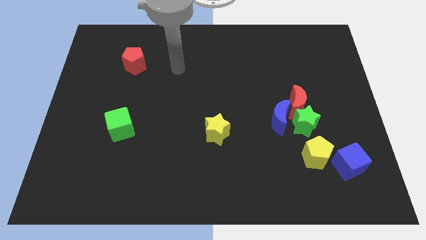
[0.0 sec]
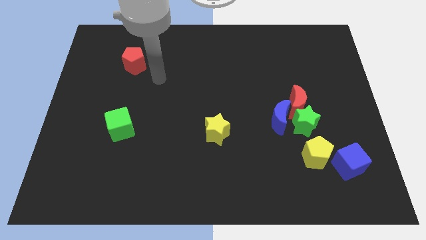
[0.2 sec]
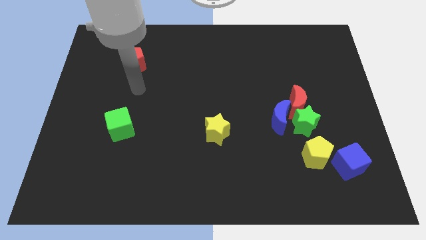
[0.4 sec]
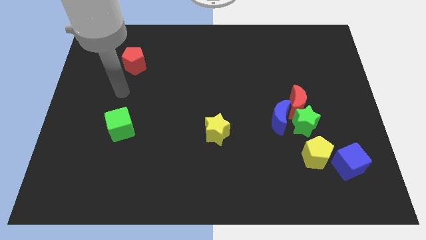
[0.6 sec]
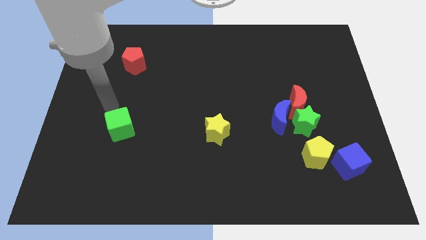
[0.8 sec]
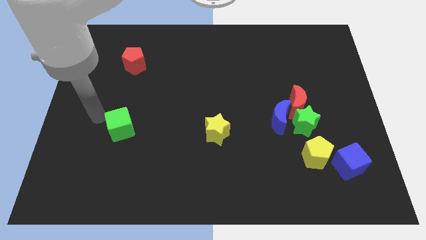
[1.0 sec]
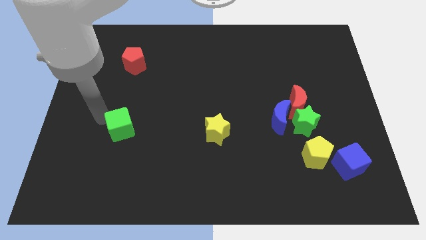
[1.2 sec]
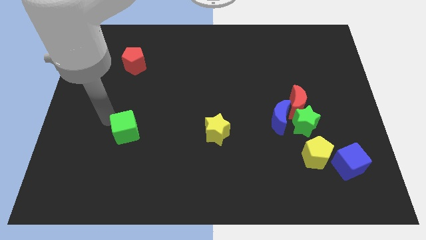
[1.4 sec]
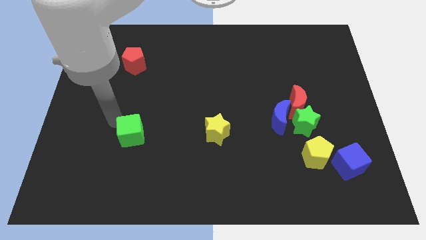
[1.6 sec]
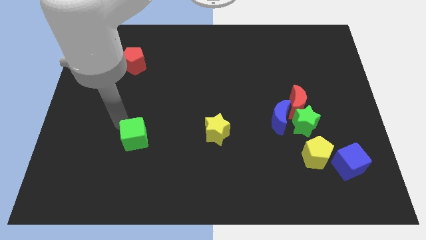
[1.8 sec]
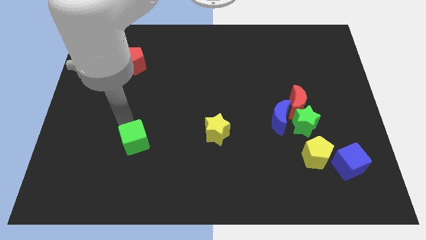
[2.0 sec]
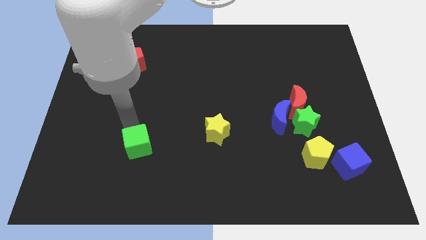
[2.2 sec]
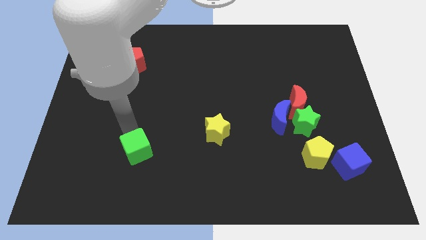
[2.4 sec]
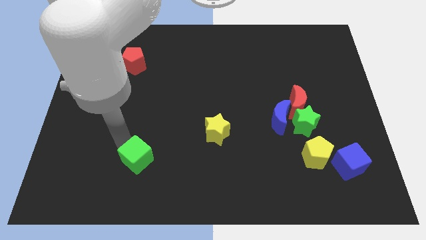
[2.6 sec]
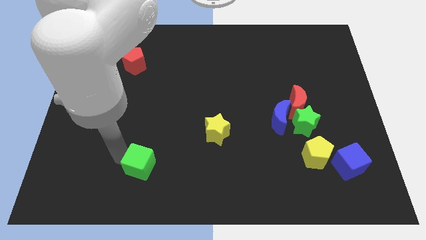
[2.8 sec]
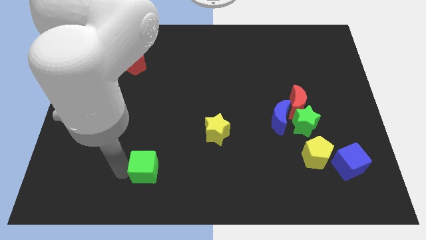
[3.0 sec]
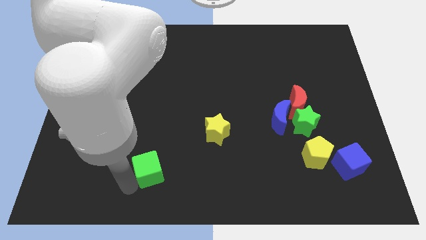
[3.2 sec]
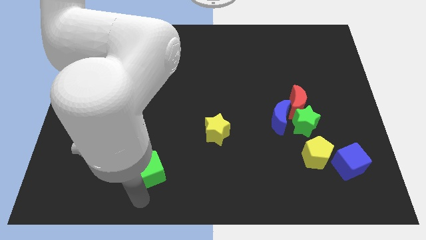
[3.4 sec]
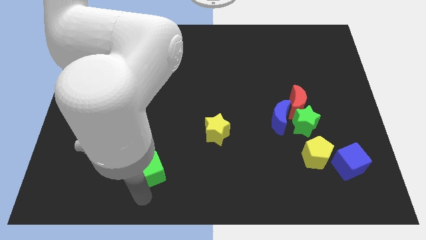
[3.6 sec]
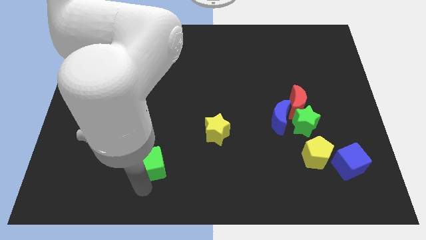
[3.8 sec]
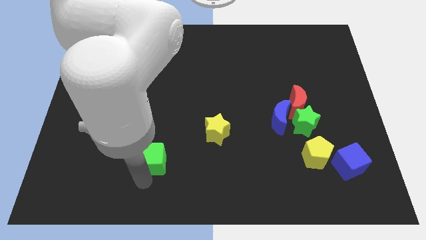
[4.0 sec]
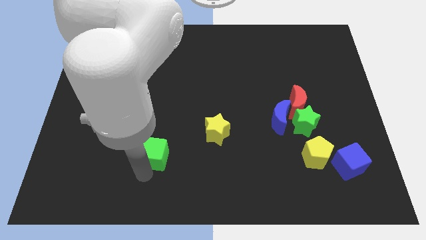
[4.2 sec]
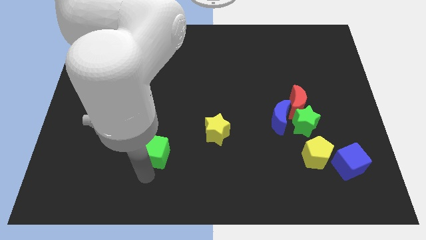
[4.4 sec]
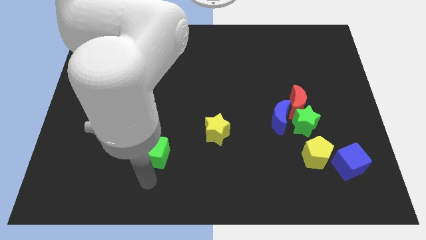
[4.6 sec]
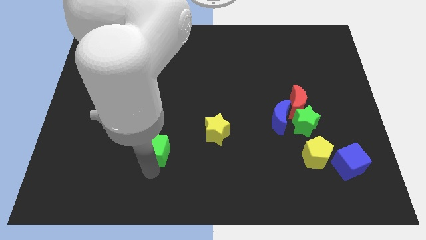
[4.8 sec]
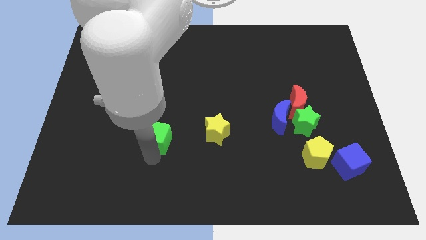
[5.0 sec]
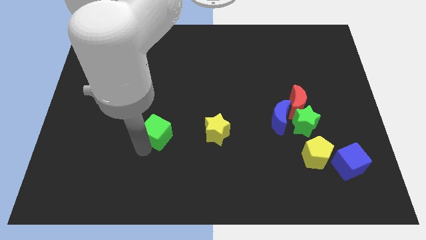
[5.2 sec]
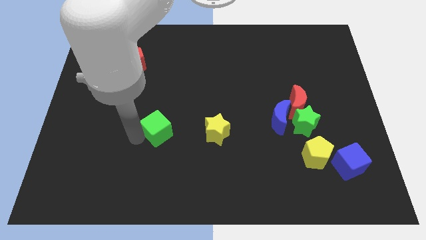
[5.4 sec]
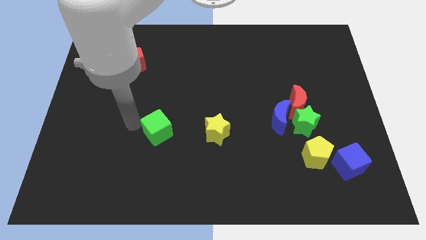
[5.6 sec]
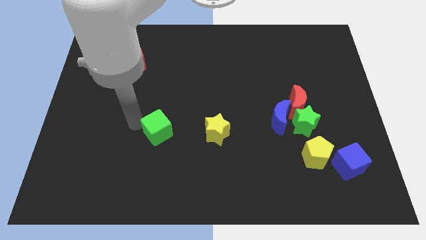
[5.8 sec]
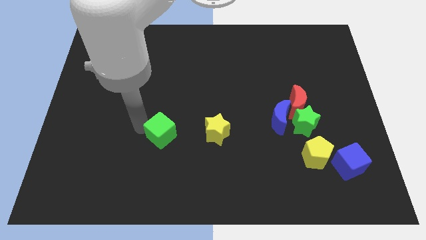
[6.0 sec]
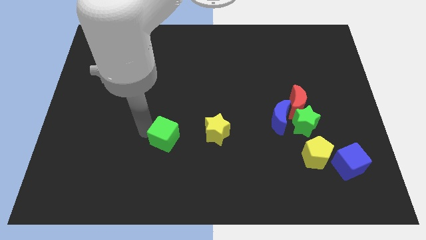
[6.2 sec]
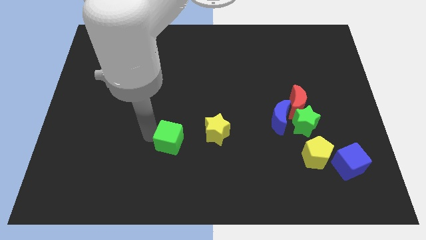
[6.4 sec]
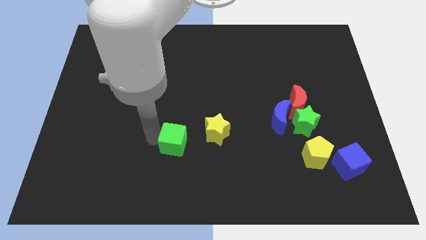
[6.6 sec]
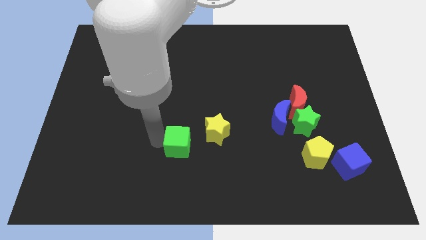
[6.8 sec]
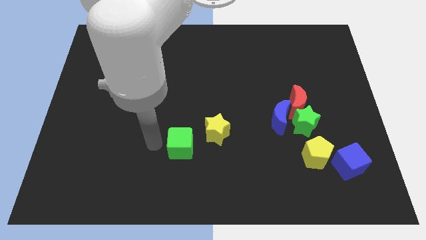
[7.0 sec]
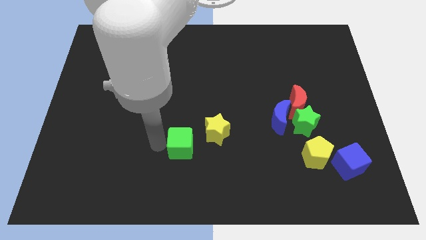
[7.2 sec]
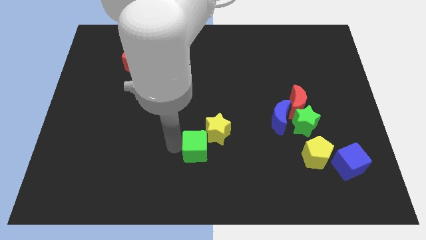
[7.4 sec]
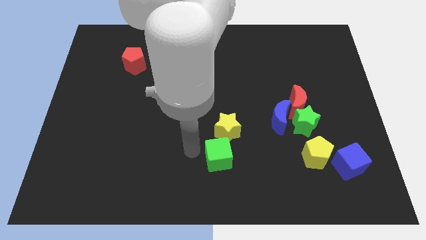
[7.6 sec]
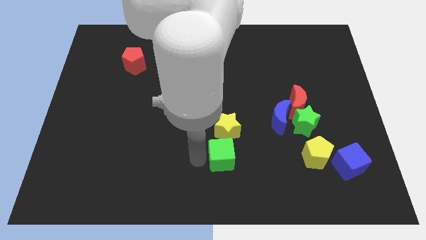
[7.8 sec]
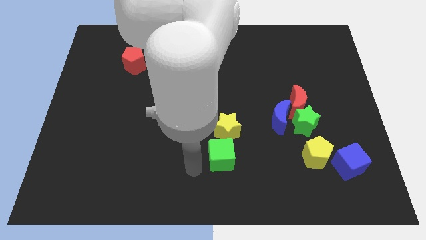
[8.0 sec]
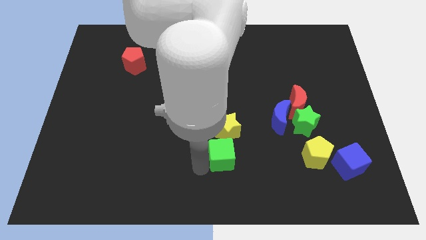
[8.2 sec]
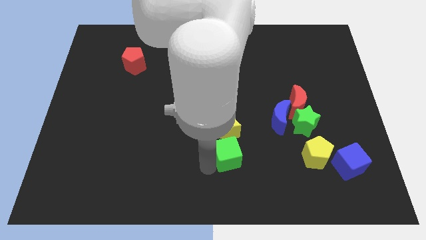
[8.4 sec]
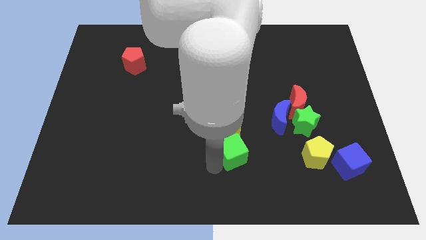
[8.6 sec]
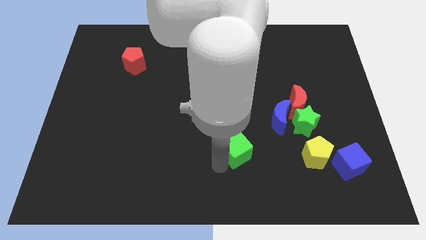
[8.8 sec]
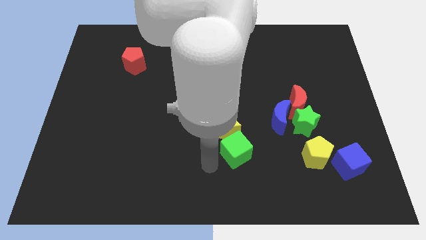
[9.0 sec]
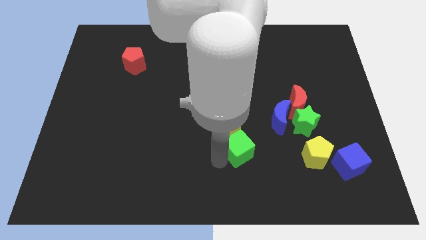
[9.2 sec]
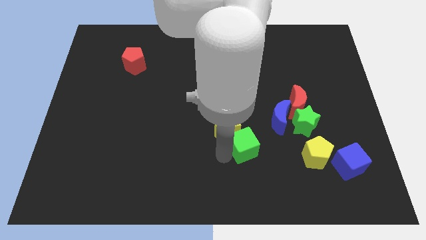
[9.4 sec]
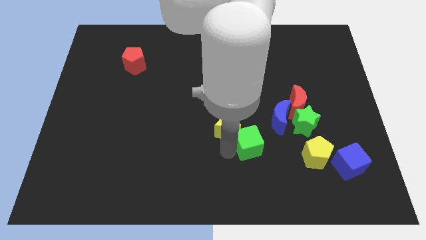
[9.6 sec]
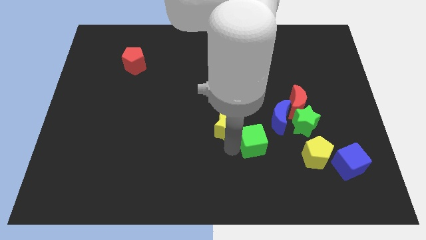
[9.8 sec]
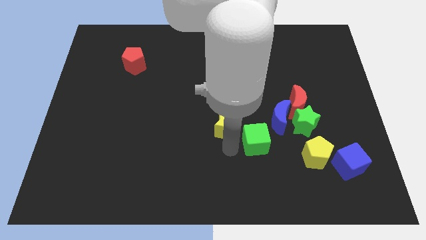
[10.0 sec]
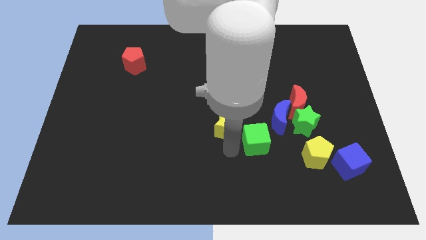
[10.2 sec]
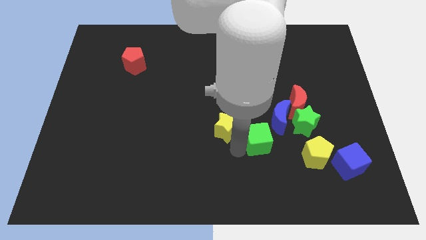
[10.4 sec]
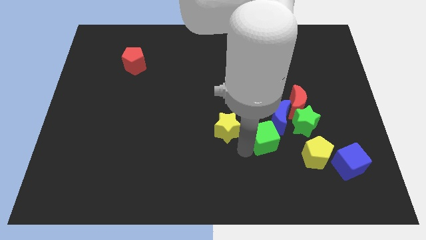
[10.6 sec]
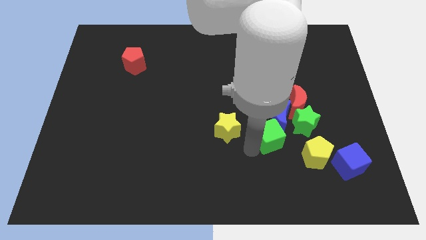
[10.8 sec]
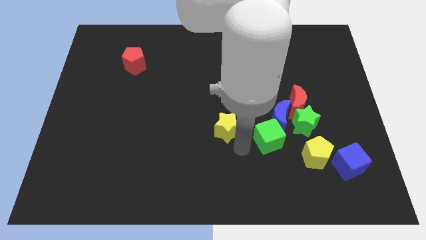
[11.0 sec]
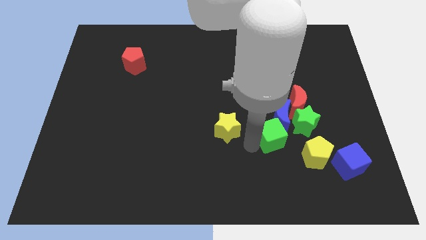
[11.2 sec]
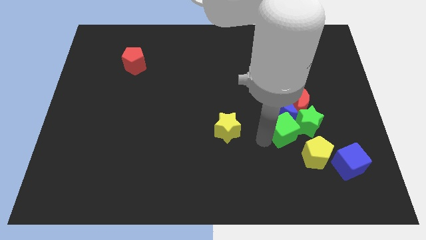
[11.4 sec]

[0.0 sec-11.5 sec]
put the green cube towards the green star

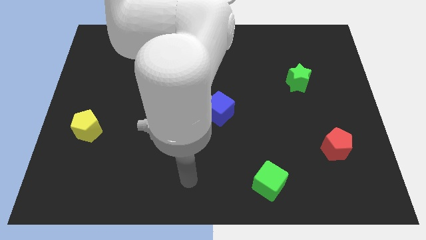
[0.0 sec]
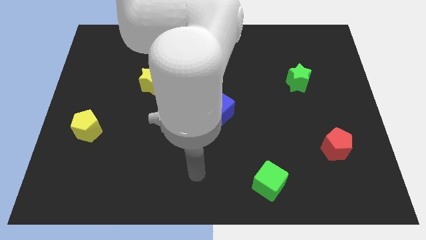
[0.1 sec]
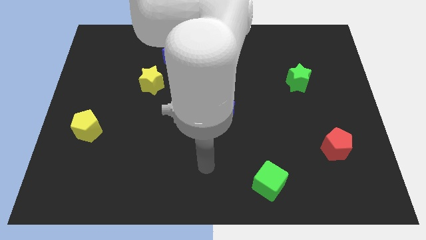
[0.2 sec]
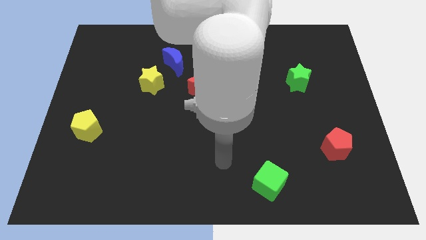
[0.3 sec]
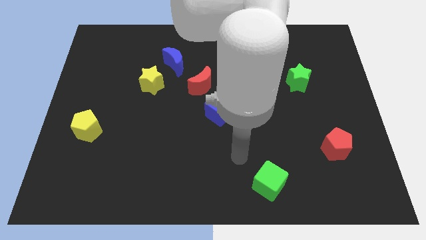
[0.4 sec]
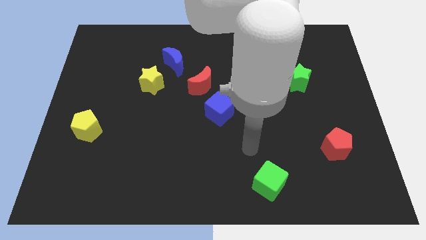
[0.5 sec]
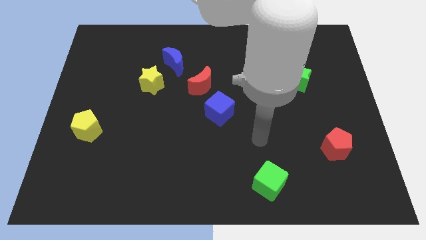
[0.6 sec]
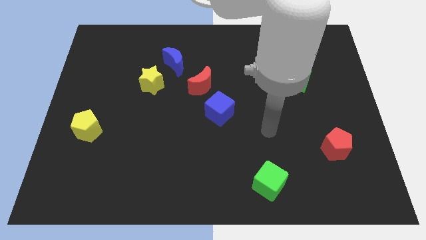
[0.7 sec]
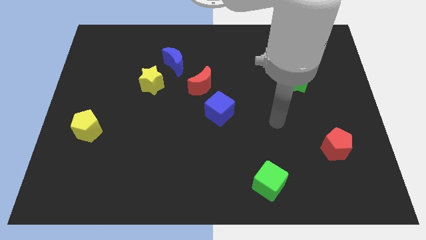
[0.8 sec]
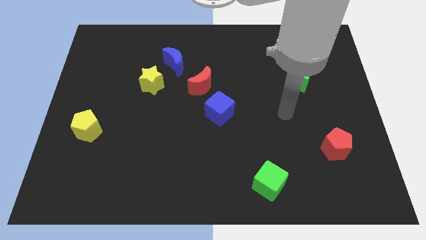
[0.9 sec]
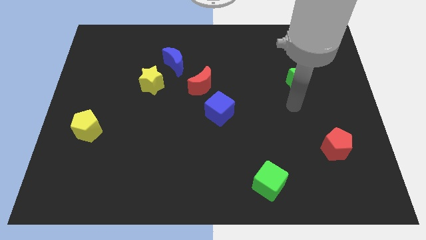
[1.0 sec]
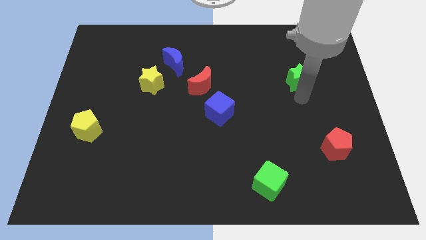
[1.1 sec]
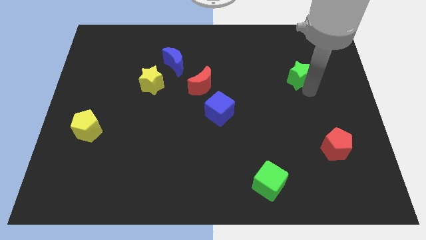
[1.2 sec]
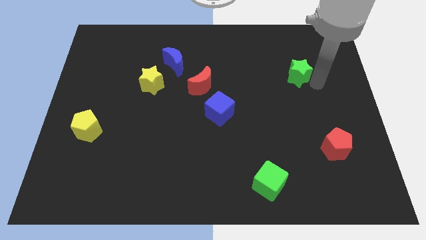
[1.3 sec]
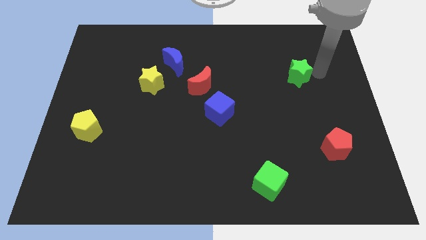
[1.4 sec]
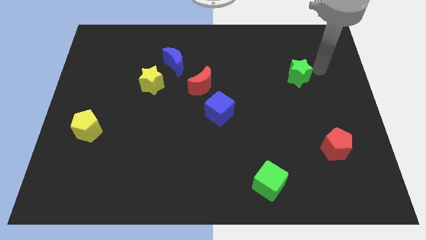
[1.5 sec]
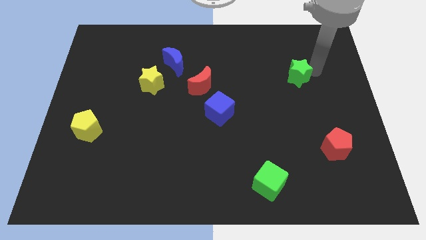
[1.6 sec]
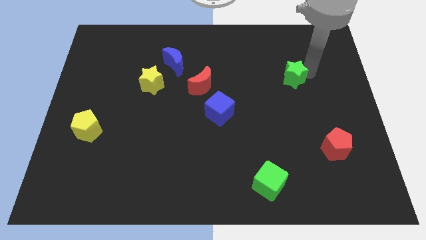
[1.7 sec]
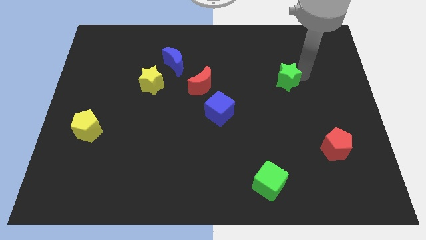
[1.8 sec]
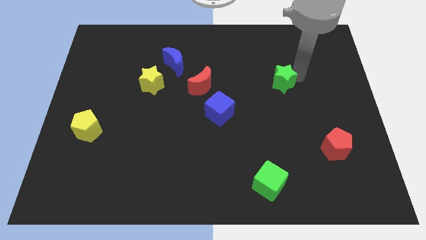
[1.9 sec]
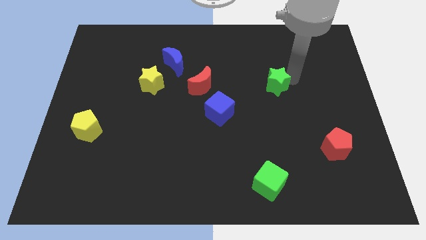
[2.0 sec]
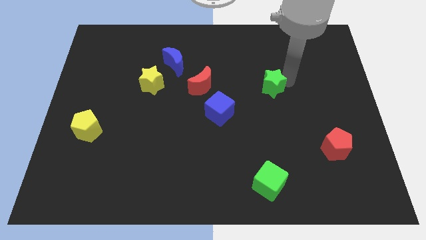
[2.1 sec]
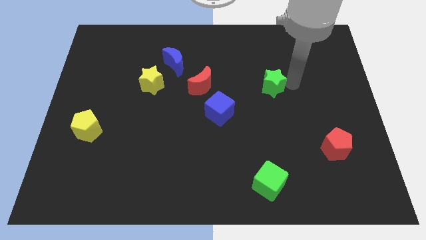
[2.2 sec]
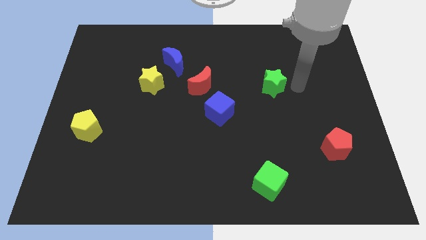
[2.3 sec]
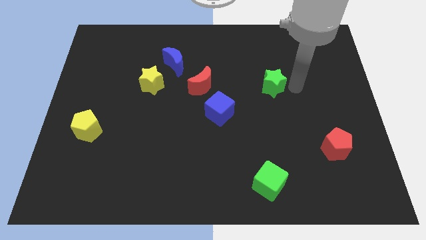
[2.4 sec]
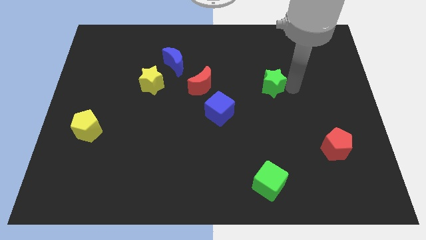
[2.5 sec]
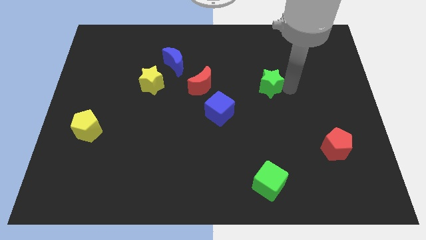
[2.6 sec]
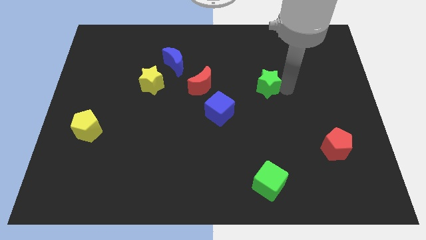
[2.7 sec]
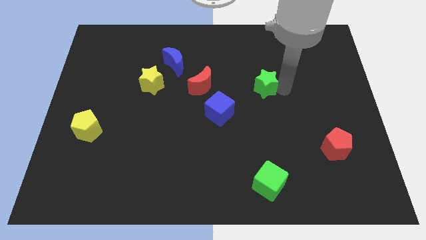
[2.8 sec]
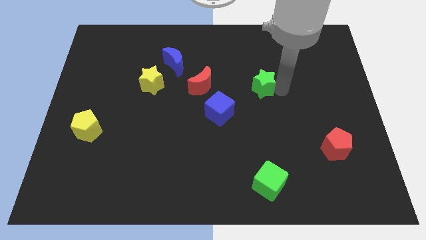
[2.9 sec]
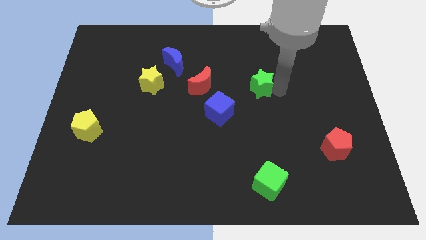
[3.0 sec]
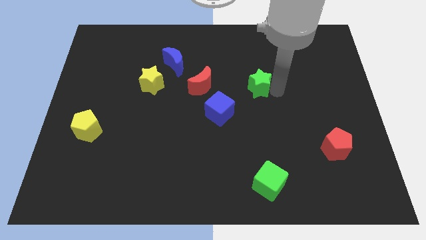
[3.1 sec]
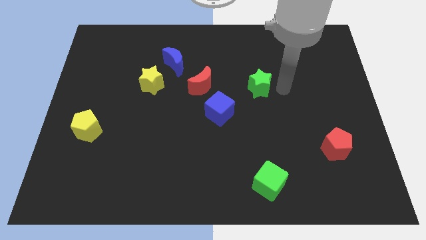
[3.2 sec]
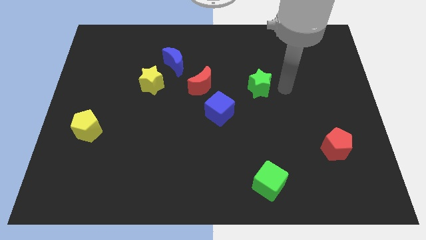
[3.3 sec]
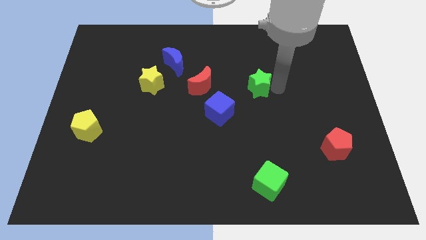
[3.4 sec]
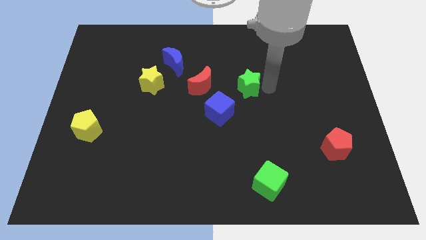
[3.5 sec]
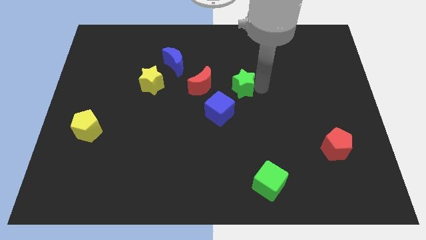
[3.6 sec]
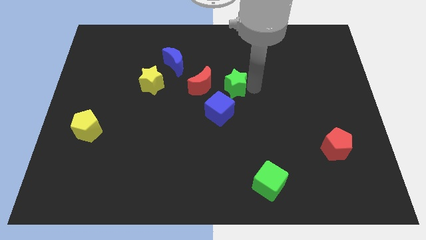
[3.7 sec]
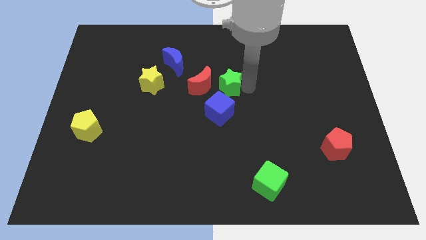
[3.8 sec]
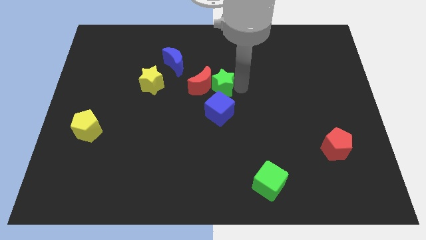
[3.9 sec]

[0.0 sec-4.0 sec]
put the green star to the red moon
